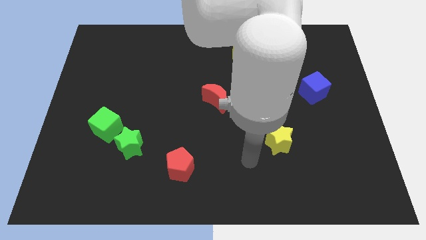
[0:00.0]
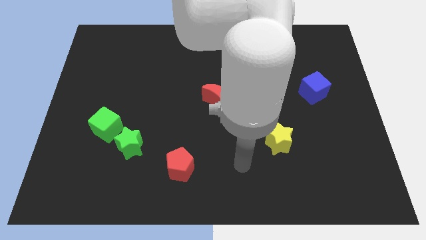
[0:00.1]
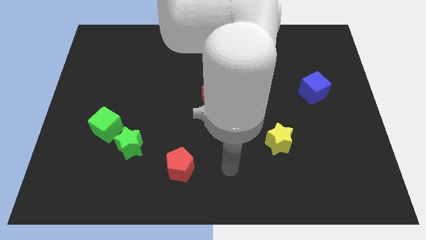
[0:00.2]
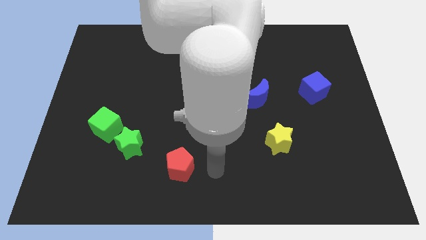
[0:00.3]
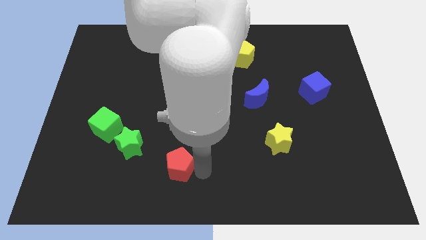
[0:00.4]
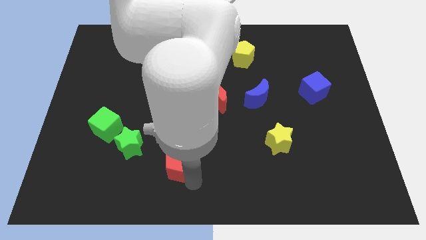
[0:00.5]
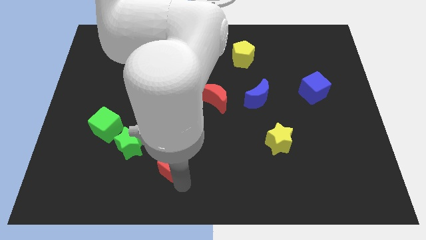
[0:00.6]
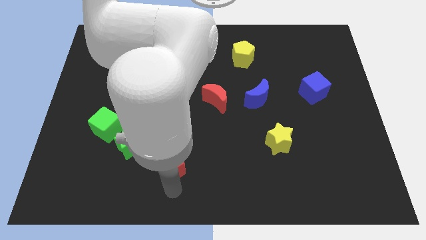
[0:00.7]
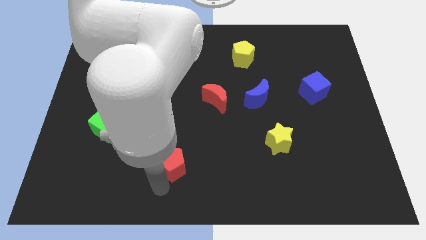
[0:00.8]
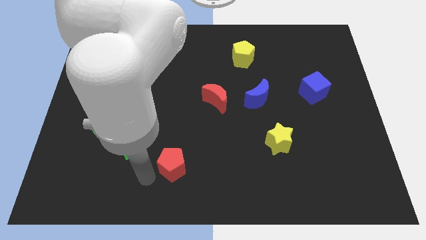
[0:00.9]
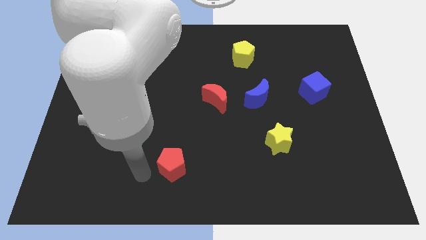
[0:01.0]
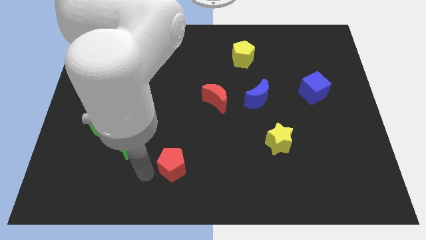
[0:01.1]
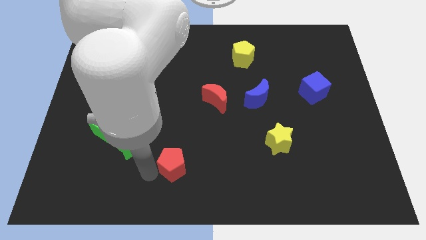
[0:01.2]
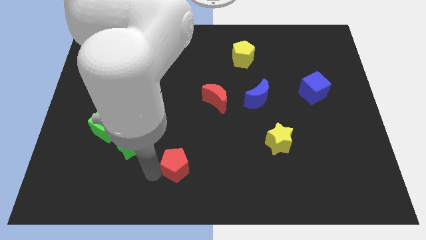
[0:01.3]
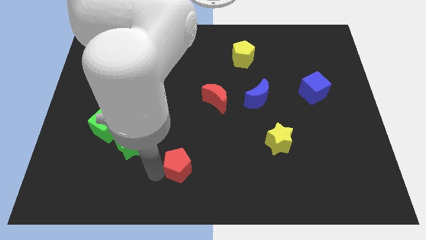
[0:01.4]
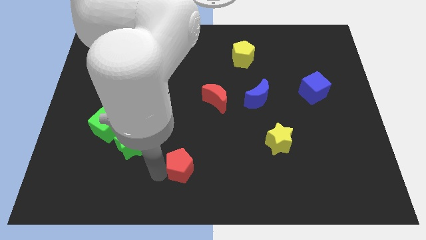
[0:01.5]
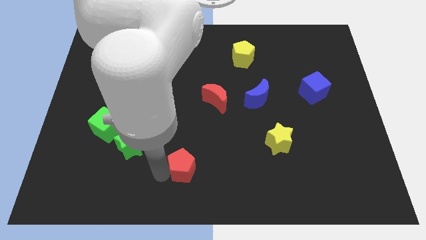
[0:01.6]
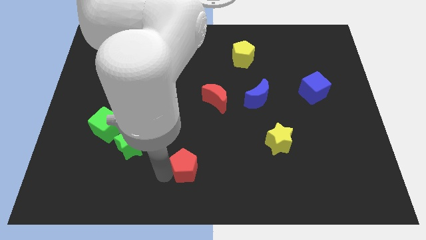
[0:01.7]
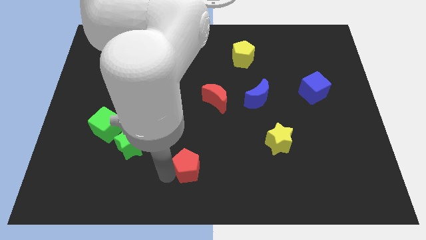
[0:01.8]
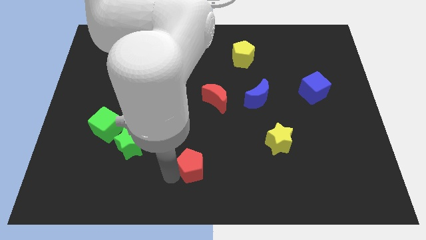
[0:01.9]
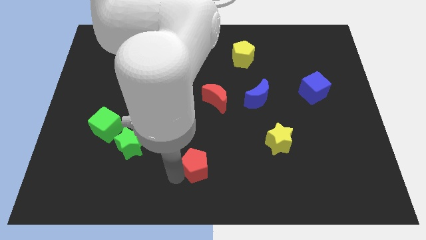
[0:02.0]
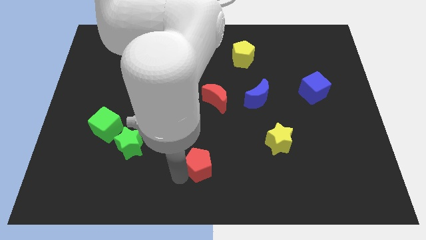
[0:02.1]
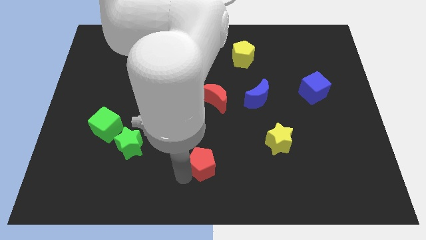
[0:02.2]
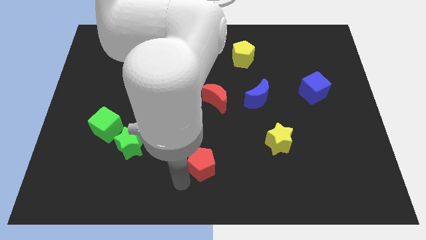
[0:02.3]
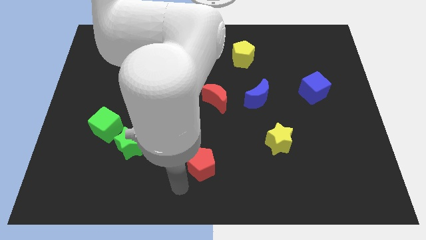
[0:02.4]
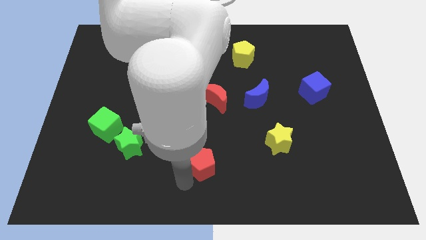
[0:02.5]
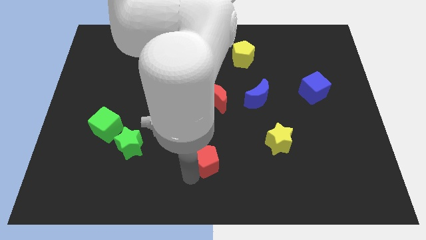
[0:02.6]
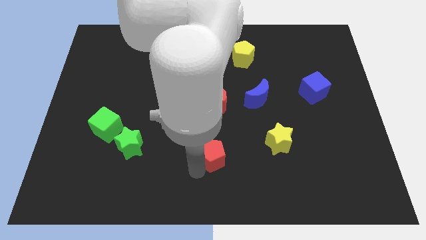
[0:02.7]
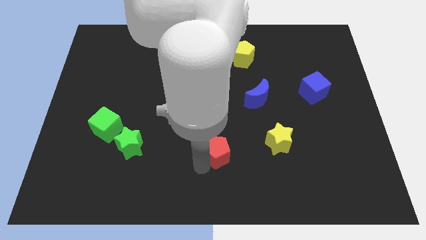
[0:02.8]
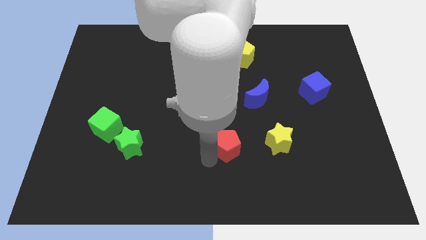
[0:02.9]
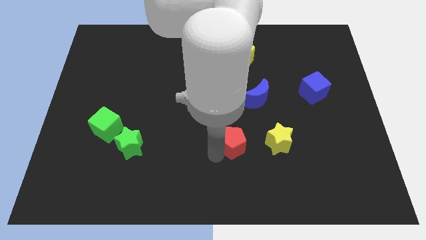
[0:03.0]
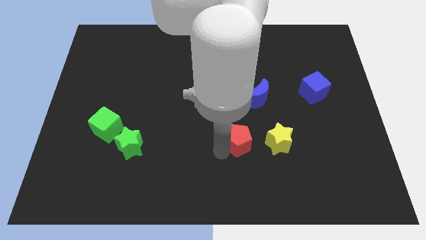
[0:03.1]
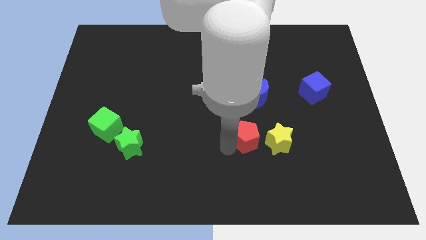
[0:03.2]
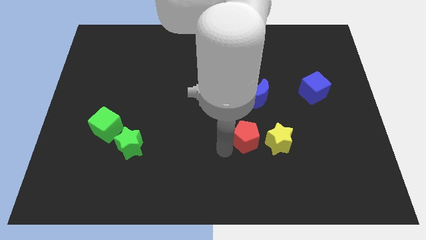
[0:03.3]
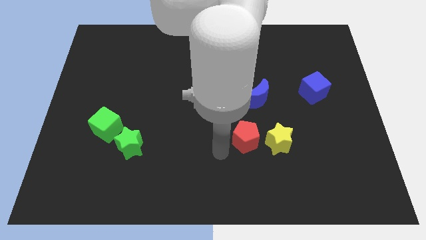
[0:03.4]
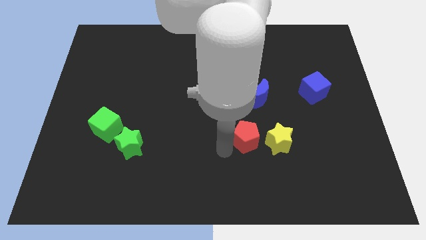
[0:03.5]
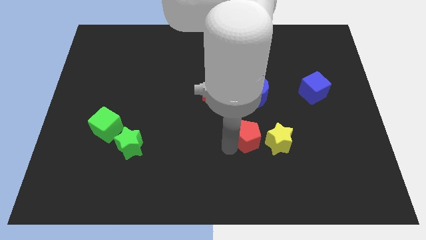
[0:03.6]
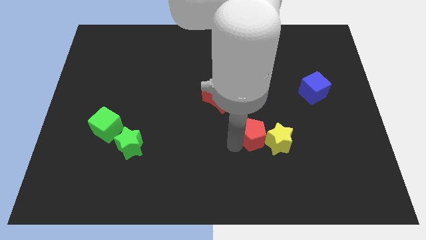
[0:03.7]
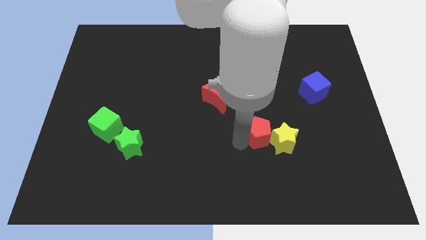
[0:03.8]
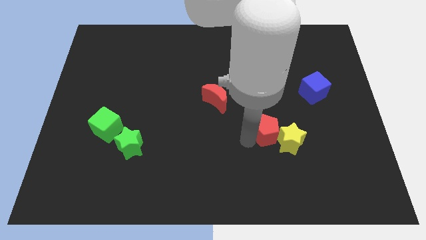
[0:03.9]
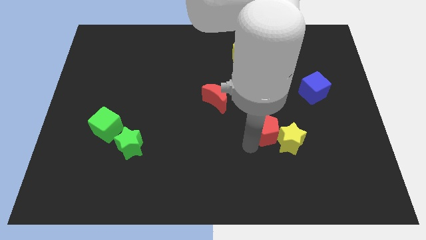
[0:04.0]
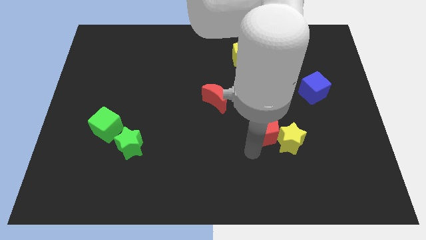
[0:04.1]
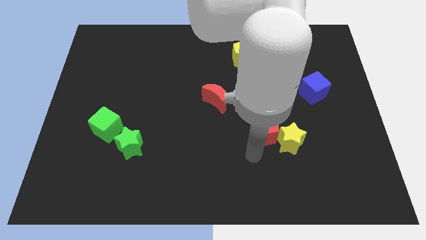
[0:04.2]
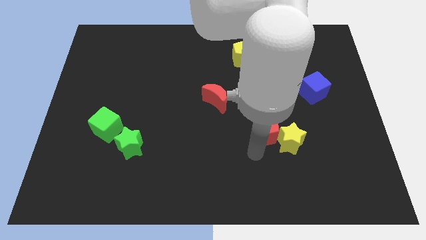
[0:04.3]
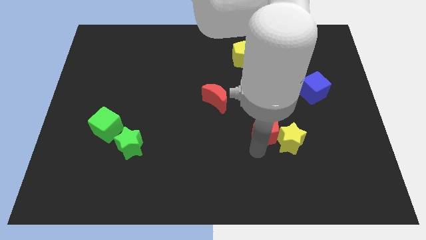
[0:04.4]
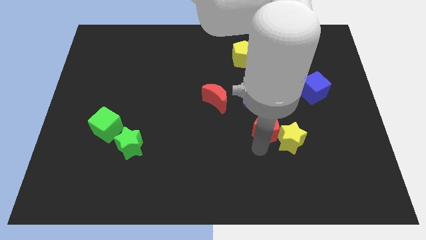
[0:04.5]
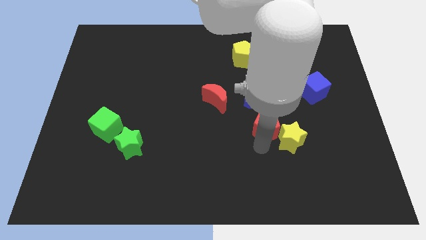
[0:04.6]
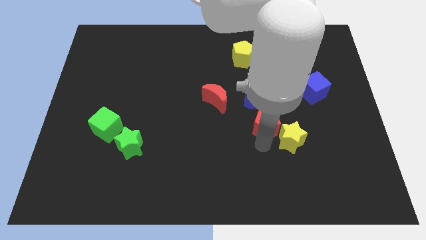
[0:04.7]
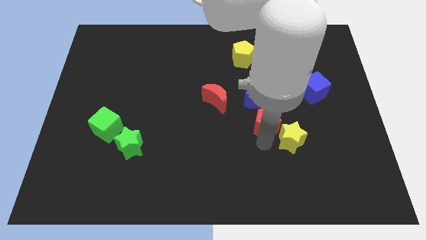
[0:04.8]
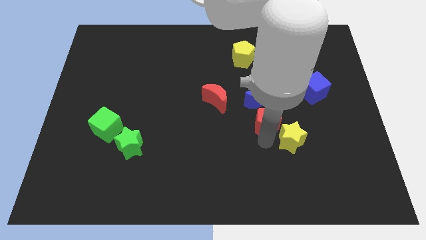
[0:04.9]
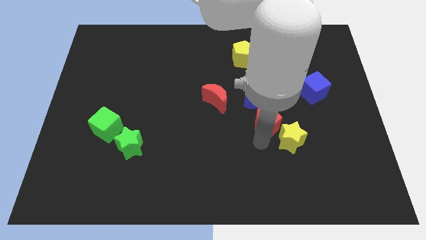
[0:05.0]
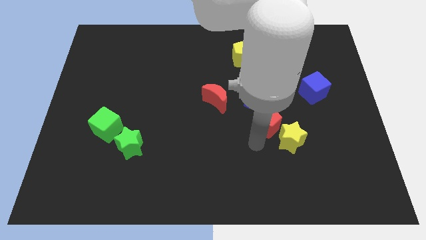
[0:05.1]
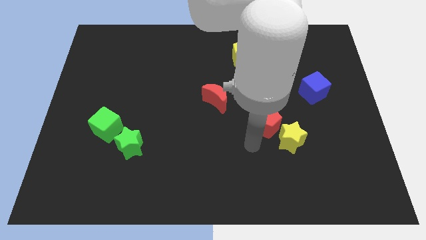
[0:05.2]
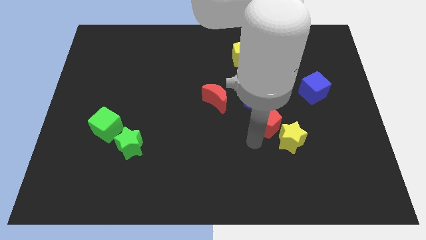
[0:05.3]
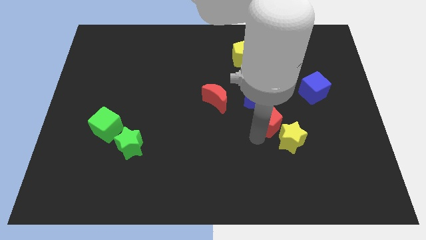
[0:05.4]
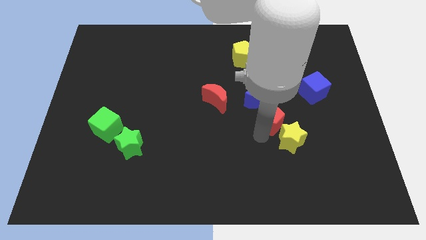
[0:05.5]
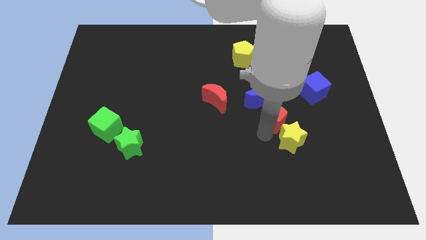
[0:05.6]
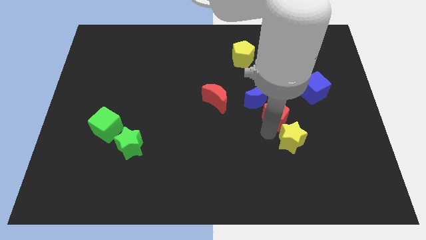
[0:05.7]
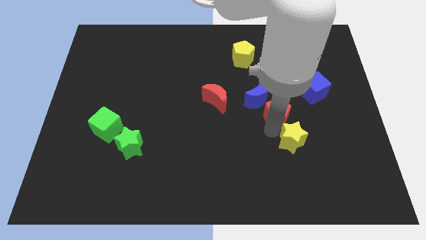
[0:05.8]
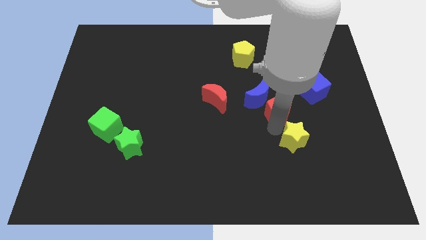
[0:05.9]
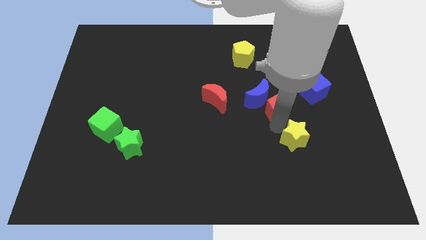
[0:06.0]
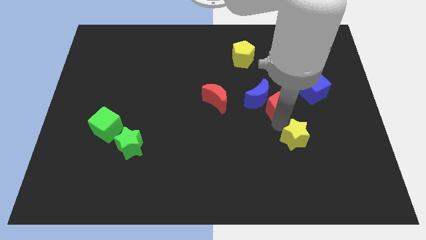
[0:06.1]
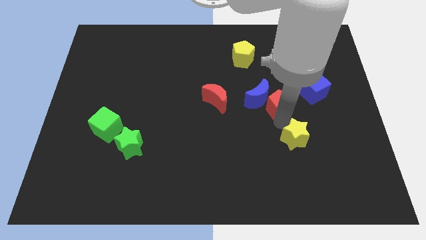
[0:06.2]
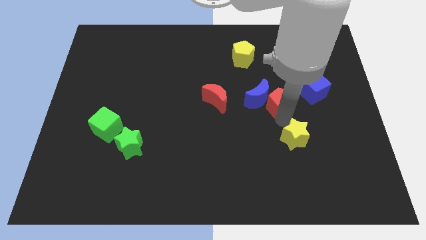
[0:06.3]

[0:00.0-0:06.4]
push the red pentagon to the left of the blue cube
